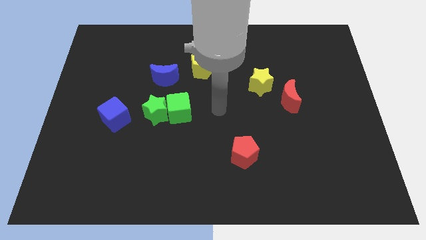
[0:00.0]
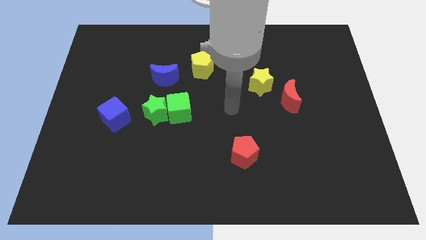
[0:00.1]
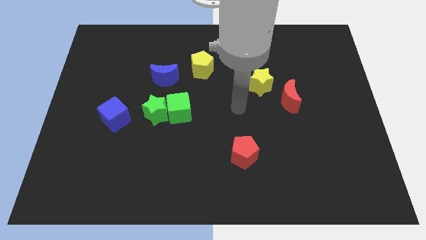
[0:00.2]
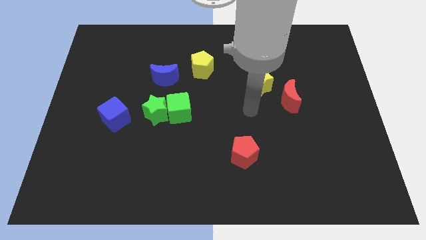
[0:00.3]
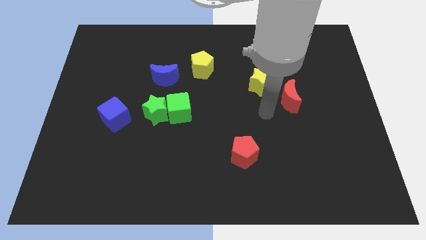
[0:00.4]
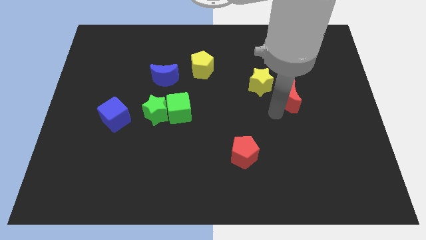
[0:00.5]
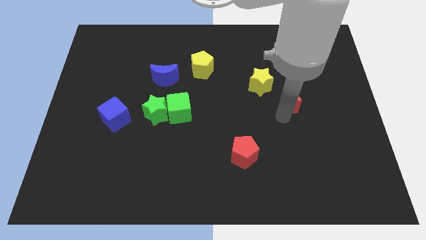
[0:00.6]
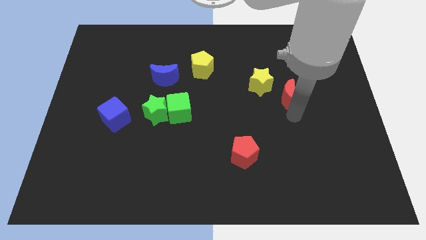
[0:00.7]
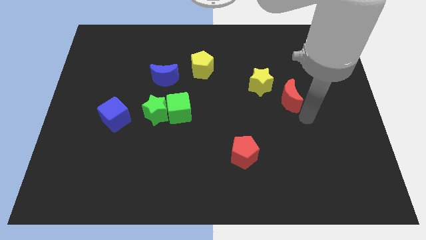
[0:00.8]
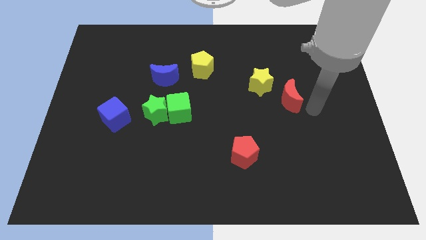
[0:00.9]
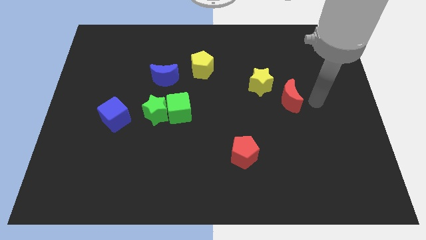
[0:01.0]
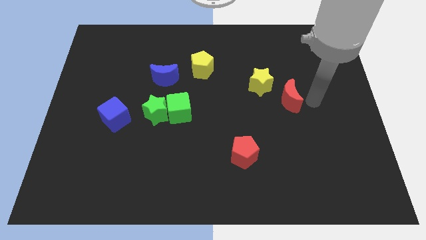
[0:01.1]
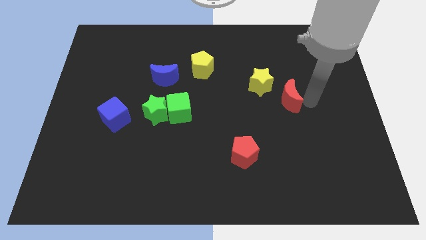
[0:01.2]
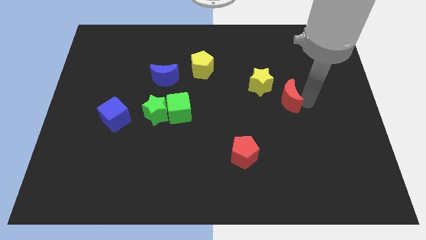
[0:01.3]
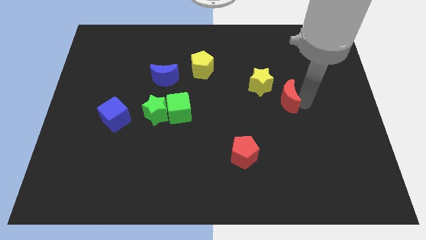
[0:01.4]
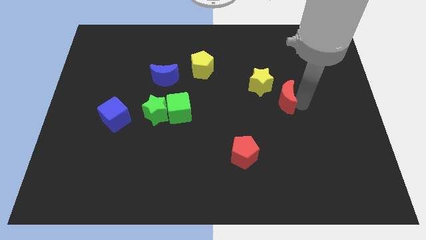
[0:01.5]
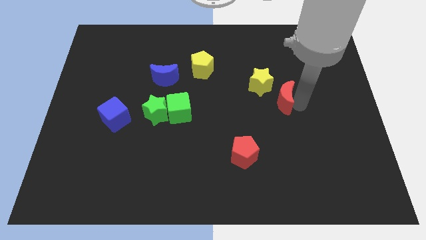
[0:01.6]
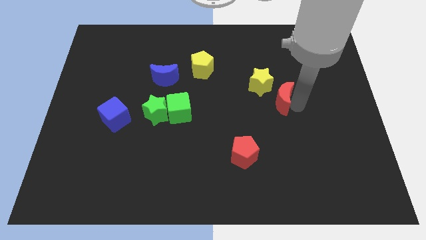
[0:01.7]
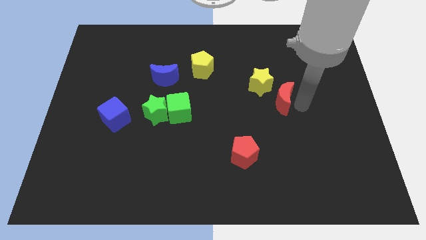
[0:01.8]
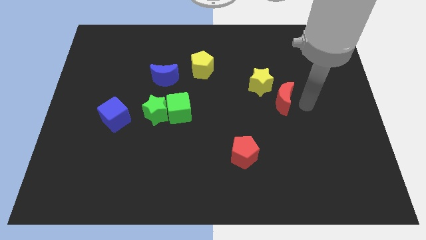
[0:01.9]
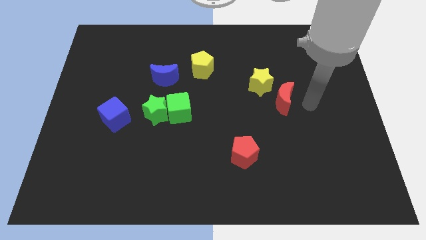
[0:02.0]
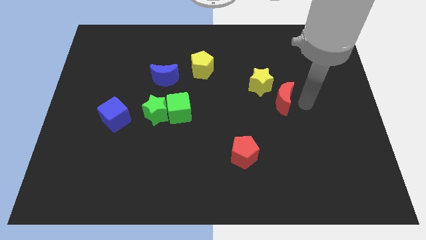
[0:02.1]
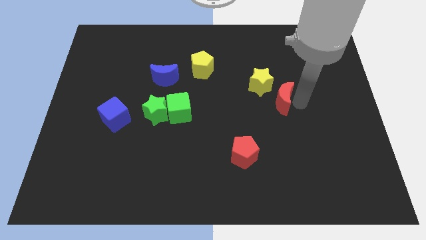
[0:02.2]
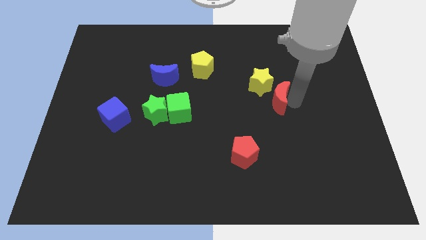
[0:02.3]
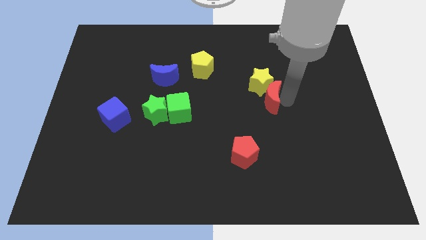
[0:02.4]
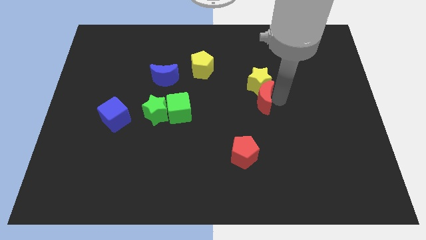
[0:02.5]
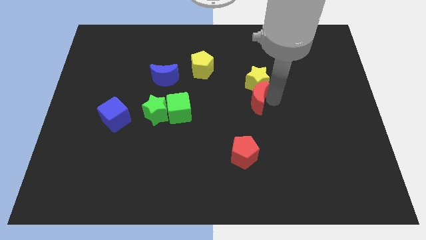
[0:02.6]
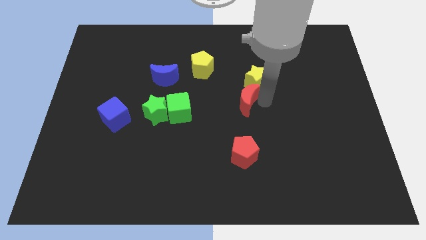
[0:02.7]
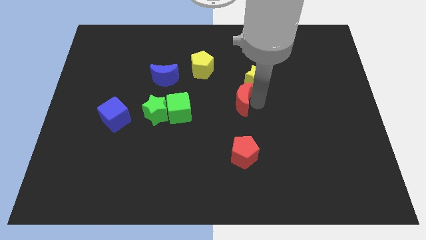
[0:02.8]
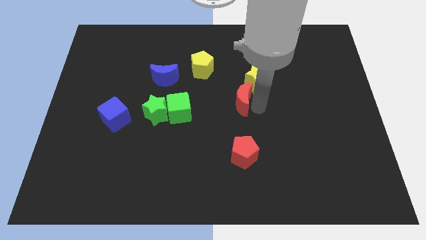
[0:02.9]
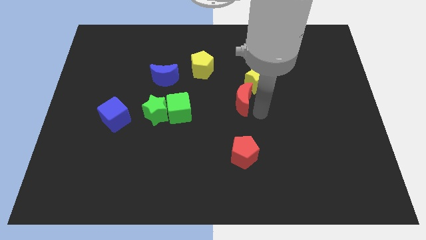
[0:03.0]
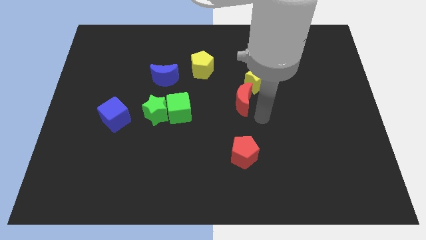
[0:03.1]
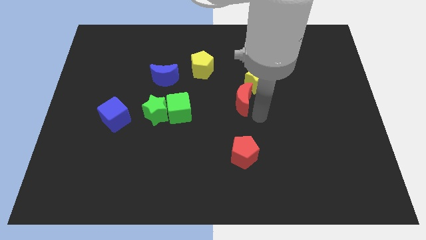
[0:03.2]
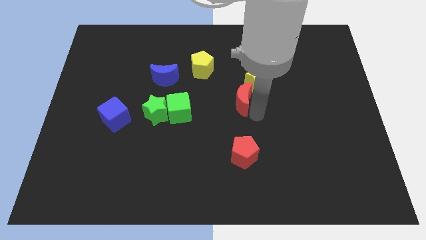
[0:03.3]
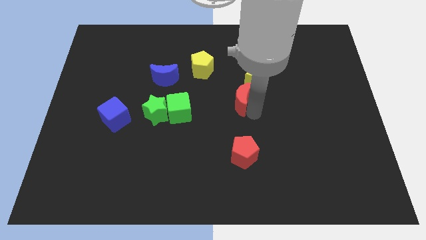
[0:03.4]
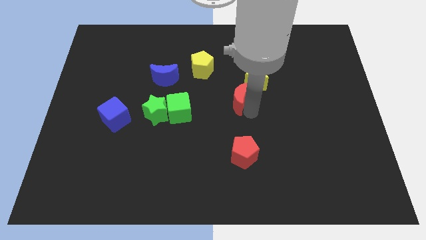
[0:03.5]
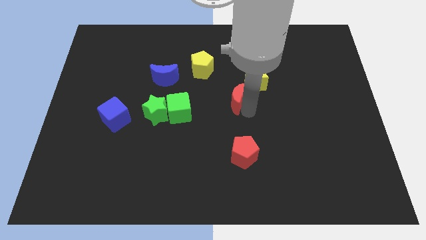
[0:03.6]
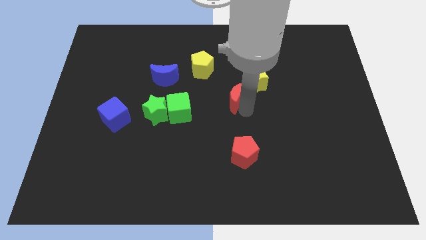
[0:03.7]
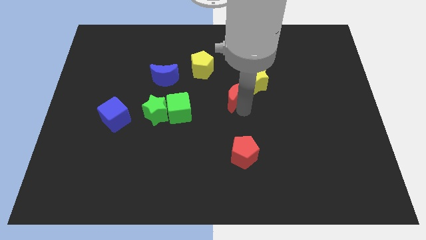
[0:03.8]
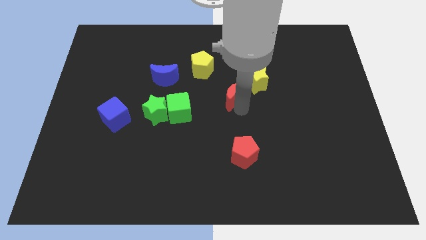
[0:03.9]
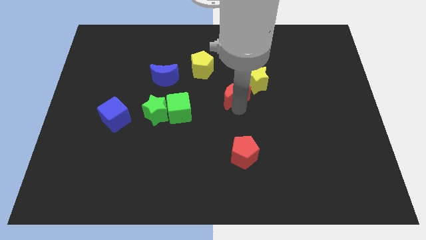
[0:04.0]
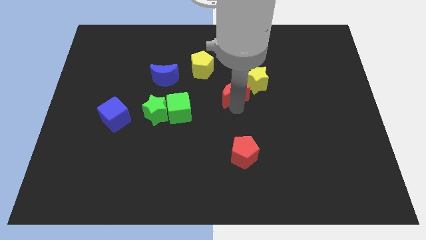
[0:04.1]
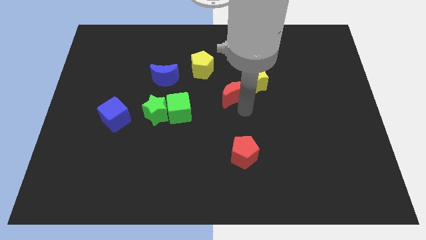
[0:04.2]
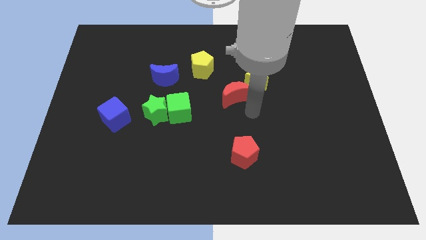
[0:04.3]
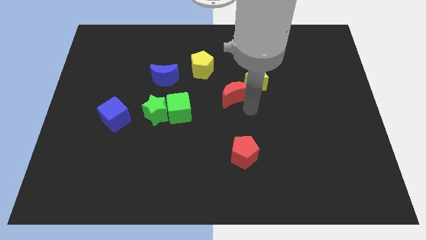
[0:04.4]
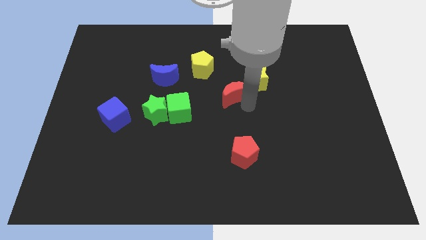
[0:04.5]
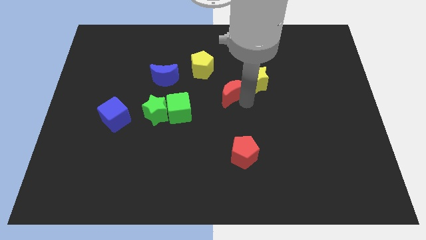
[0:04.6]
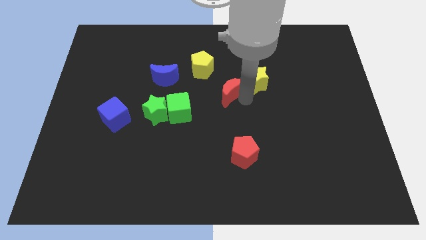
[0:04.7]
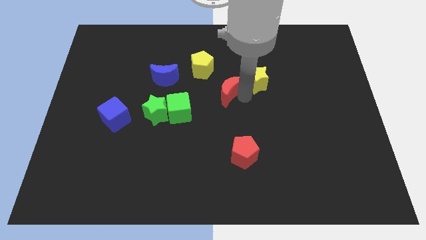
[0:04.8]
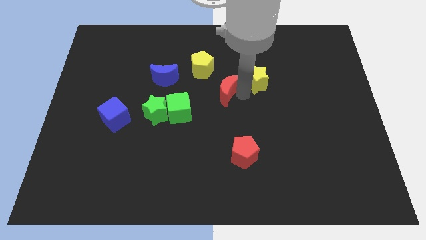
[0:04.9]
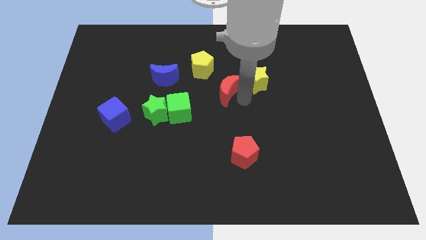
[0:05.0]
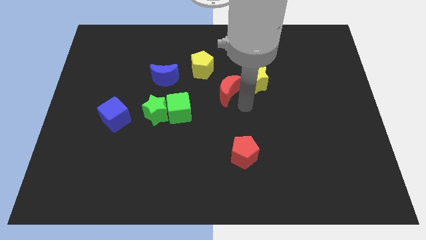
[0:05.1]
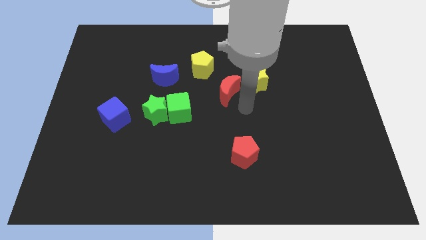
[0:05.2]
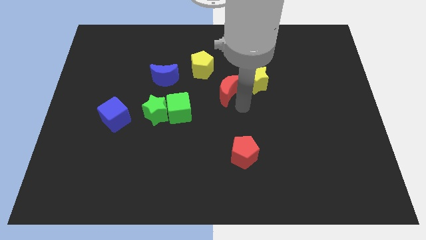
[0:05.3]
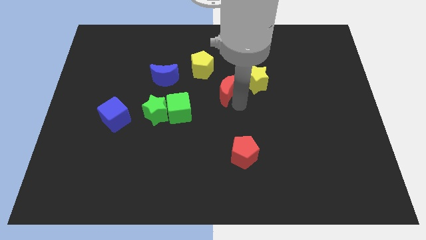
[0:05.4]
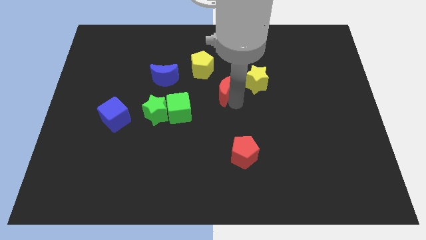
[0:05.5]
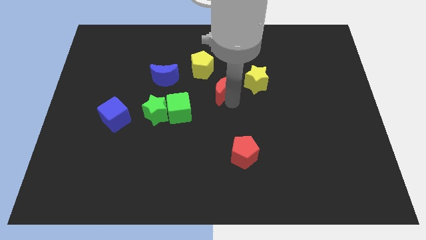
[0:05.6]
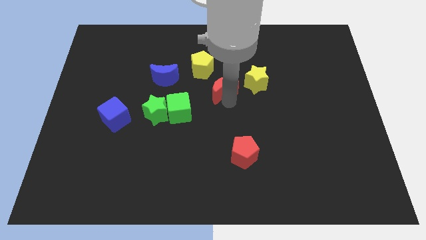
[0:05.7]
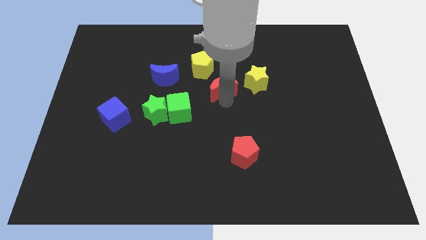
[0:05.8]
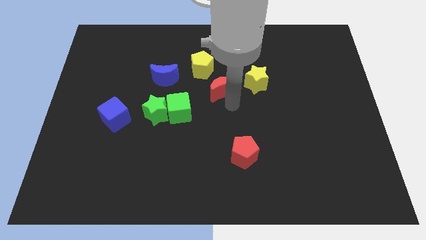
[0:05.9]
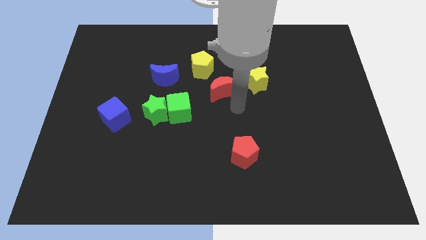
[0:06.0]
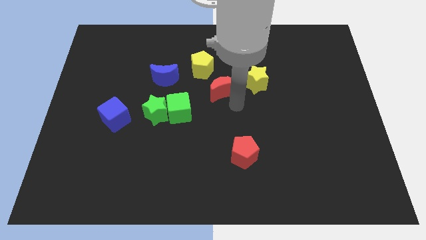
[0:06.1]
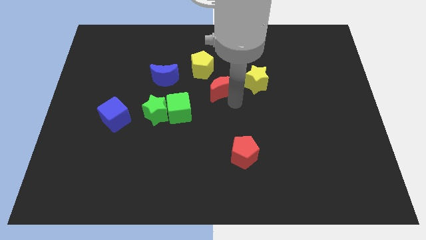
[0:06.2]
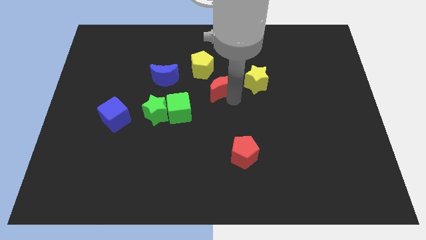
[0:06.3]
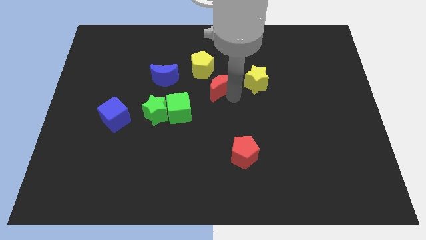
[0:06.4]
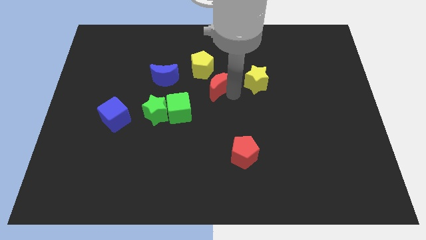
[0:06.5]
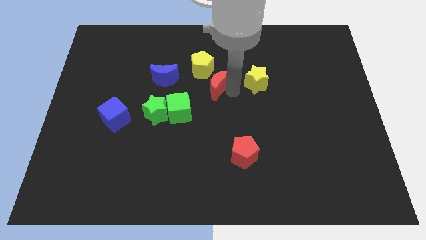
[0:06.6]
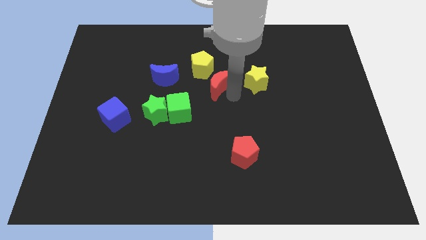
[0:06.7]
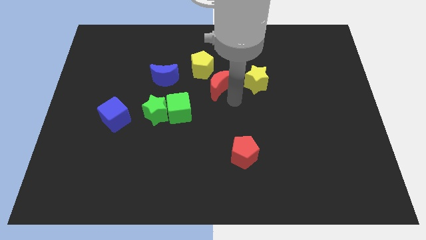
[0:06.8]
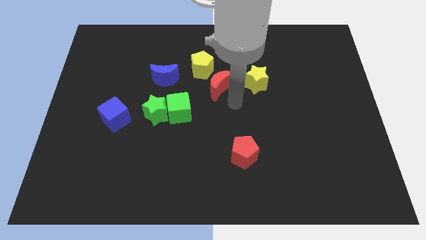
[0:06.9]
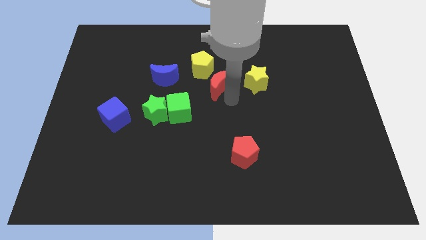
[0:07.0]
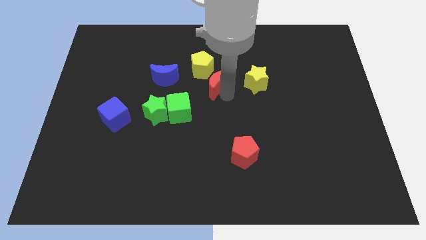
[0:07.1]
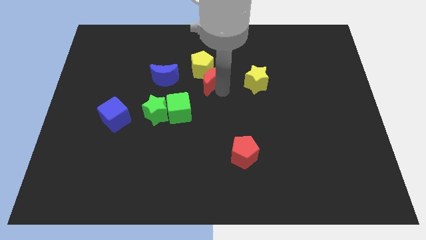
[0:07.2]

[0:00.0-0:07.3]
move the red moon towards the yellow pentagon
